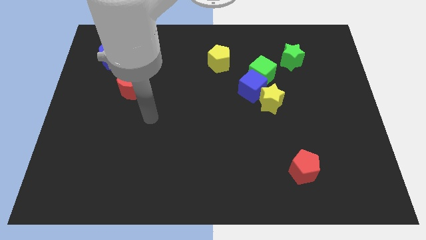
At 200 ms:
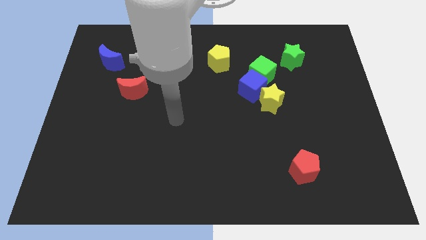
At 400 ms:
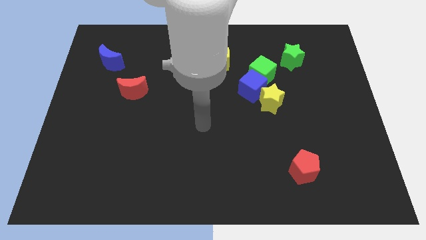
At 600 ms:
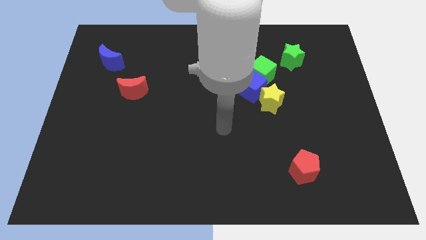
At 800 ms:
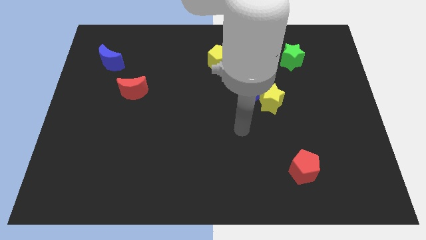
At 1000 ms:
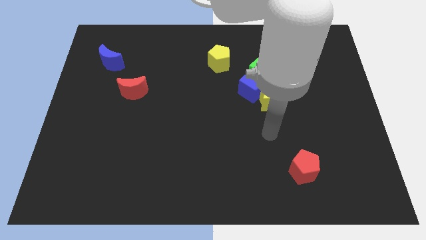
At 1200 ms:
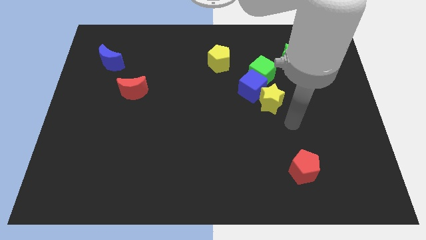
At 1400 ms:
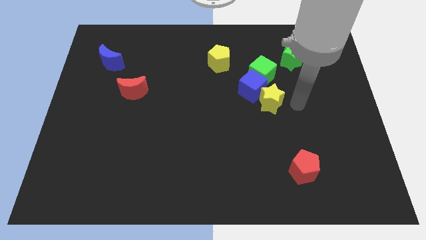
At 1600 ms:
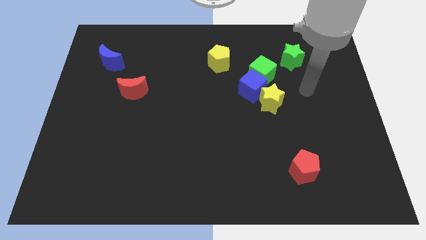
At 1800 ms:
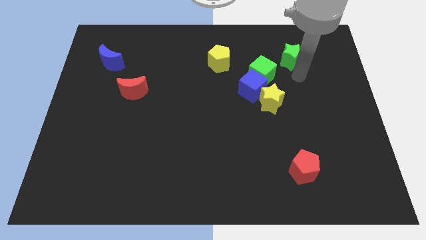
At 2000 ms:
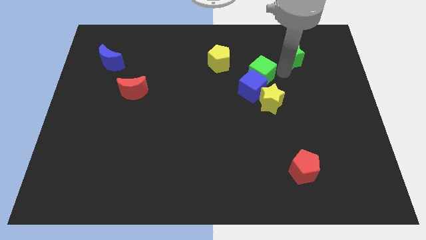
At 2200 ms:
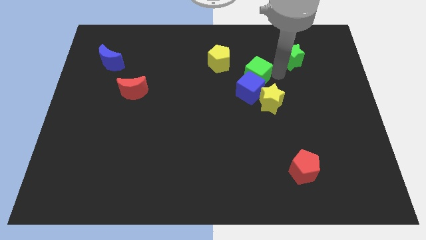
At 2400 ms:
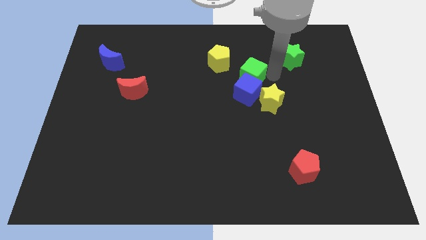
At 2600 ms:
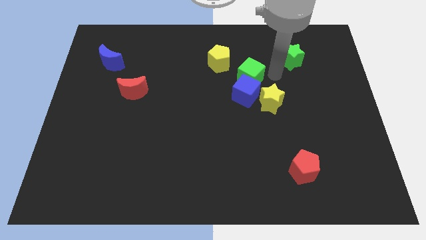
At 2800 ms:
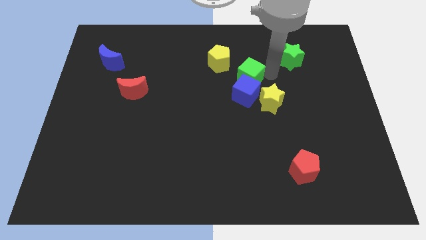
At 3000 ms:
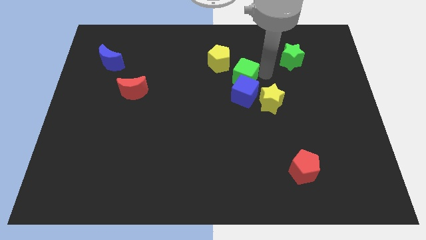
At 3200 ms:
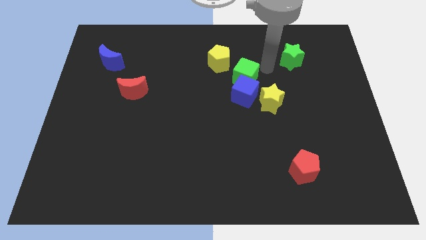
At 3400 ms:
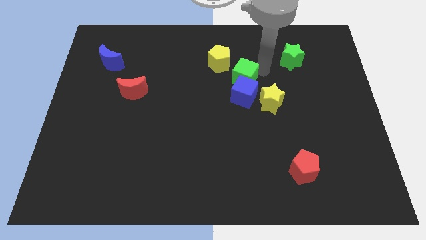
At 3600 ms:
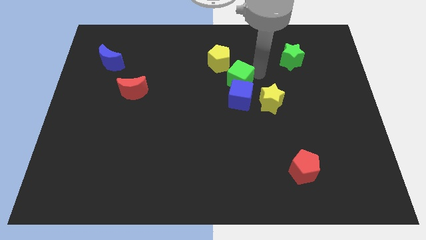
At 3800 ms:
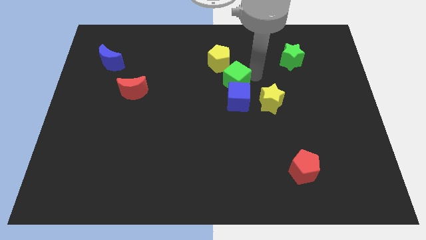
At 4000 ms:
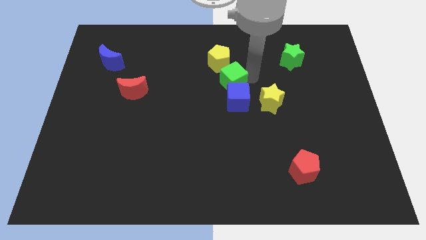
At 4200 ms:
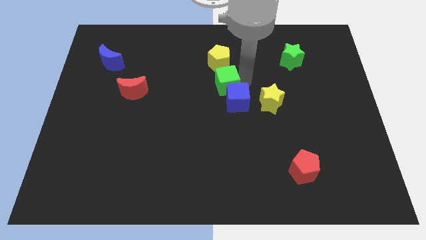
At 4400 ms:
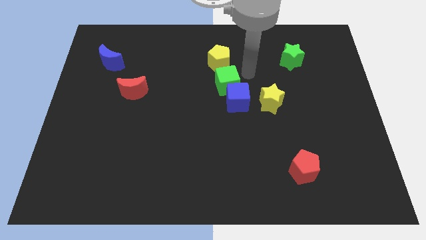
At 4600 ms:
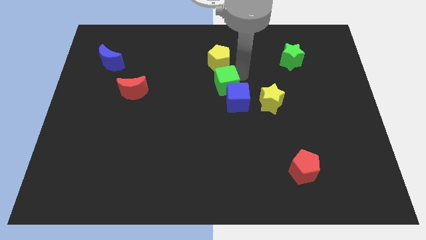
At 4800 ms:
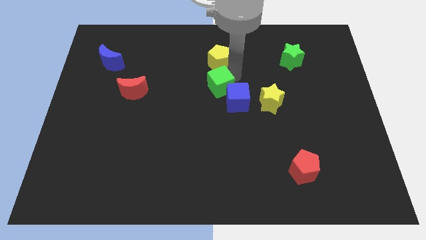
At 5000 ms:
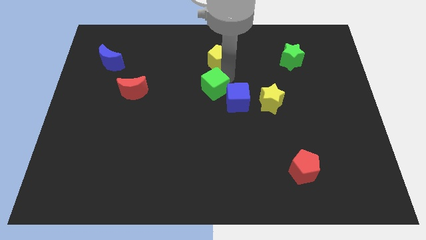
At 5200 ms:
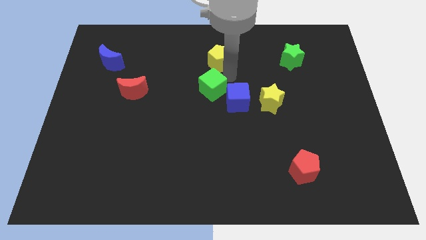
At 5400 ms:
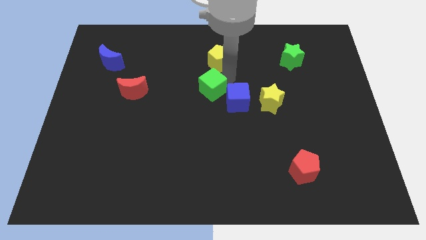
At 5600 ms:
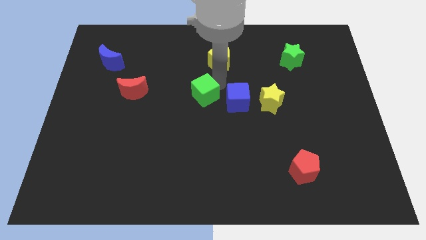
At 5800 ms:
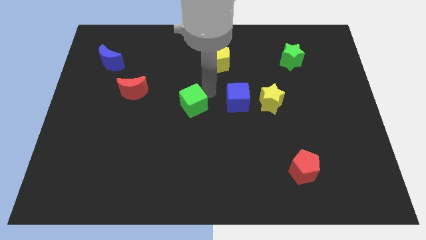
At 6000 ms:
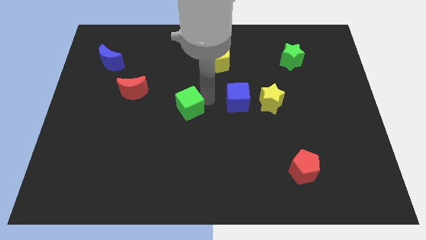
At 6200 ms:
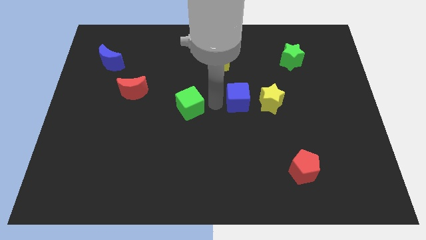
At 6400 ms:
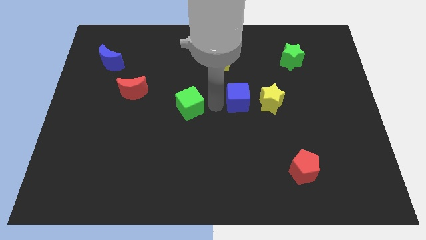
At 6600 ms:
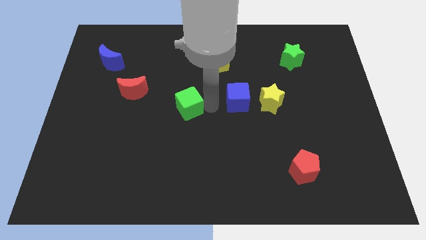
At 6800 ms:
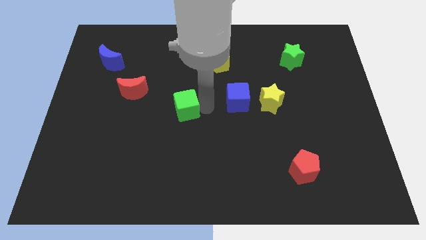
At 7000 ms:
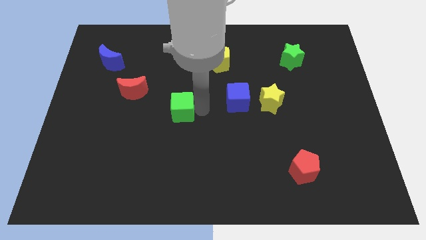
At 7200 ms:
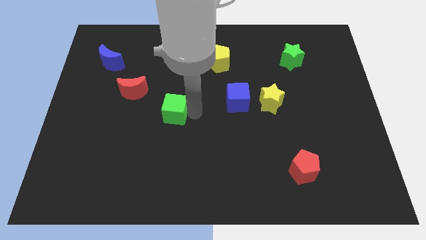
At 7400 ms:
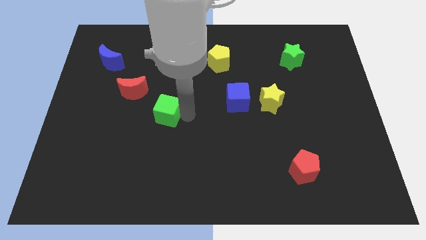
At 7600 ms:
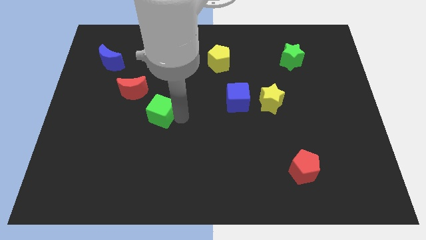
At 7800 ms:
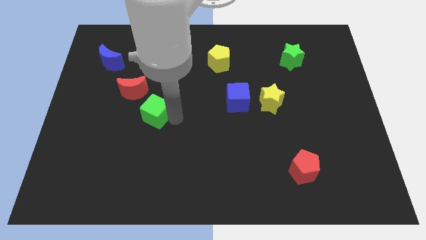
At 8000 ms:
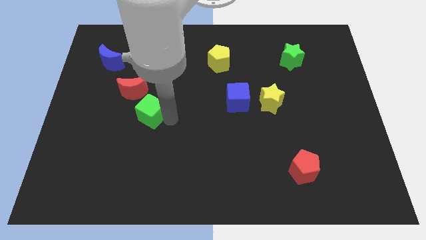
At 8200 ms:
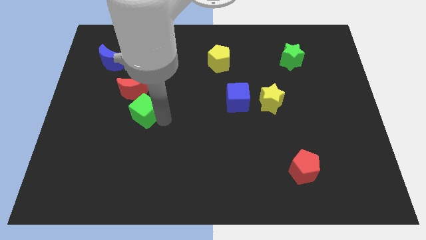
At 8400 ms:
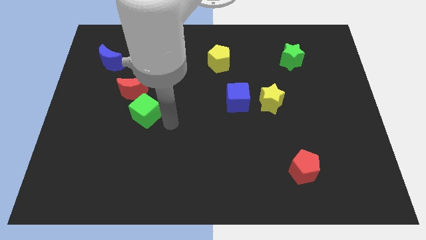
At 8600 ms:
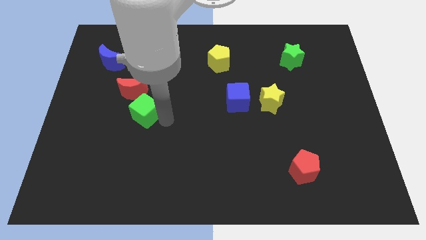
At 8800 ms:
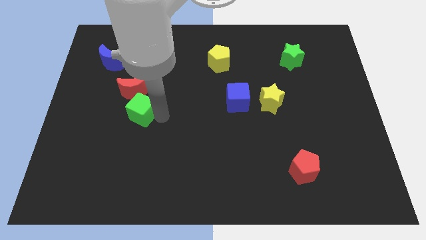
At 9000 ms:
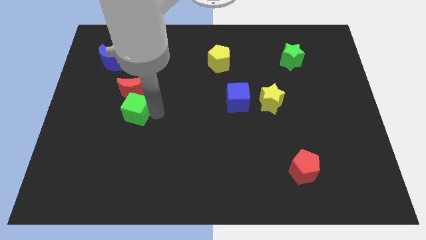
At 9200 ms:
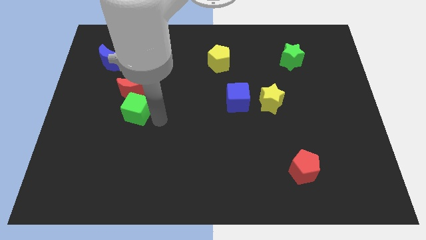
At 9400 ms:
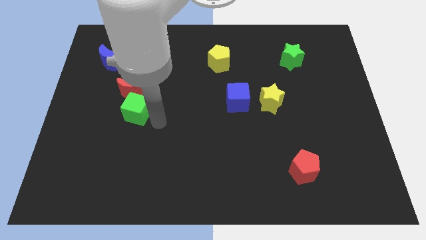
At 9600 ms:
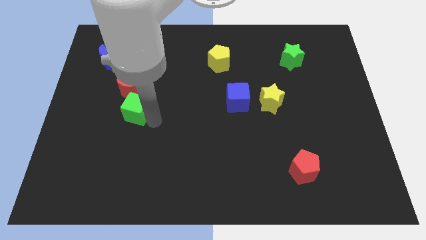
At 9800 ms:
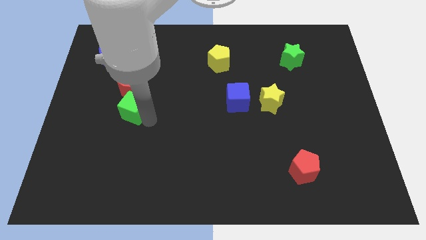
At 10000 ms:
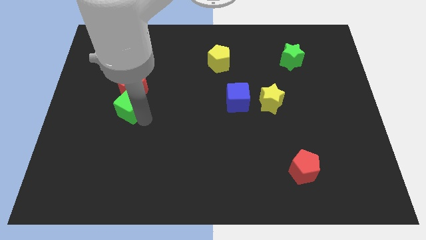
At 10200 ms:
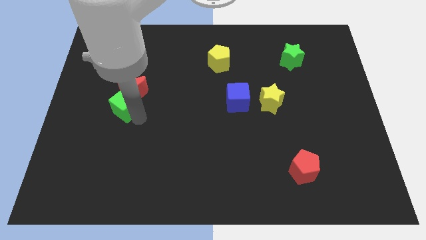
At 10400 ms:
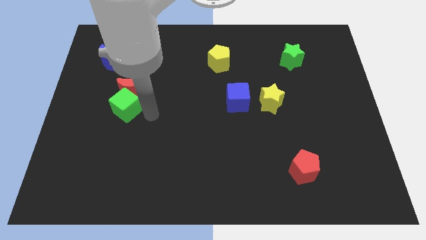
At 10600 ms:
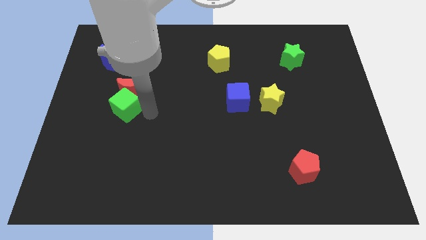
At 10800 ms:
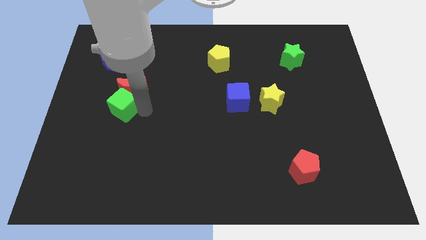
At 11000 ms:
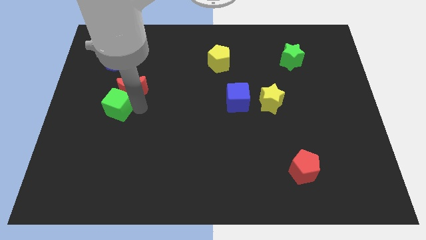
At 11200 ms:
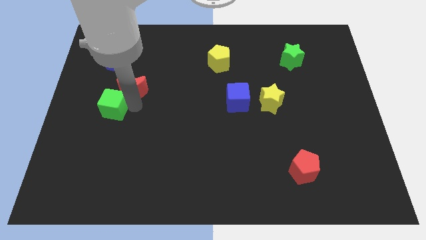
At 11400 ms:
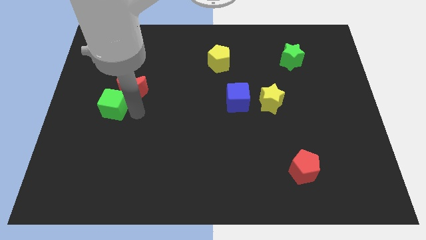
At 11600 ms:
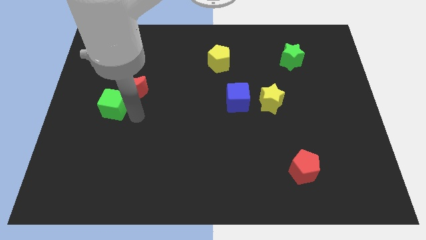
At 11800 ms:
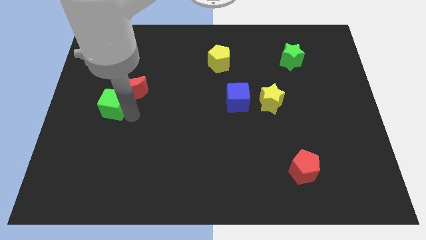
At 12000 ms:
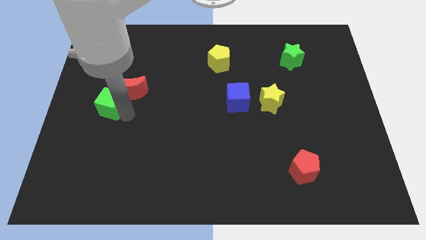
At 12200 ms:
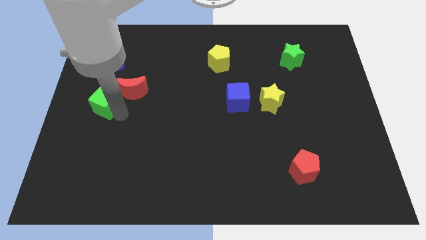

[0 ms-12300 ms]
slide the green cube to the left side

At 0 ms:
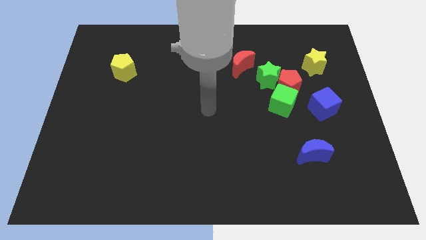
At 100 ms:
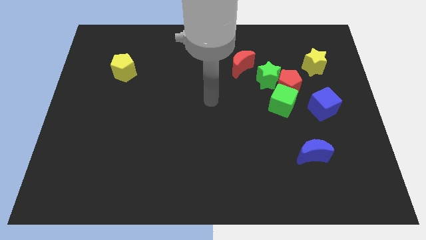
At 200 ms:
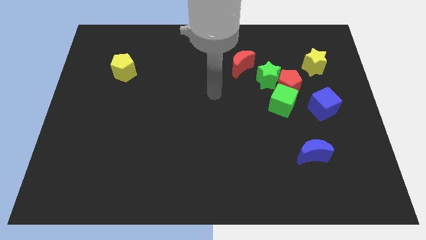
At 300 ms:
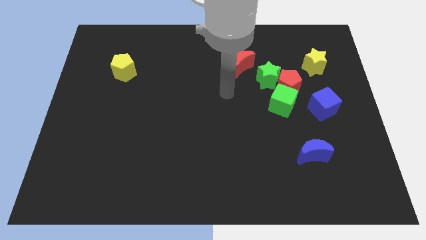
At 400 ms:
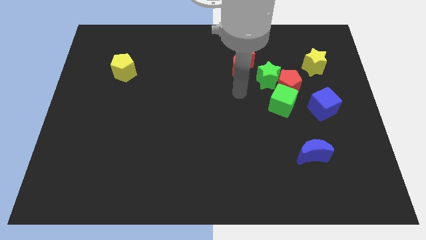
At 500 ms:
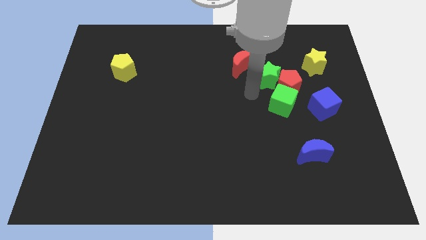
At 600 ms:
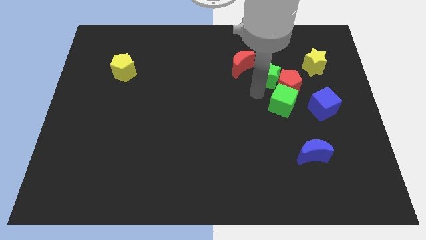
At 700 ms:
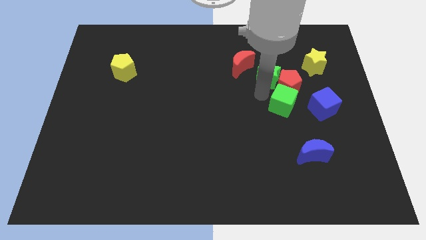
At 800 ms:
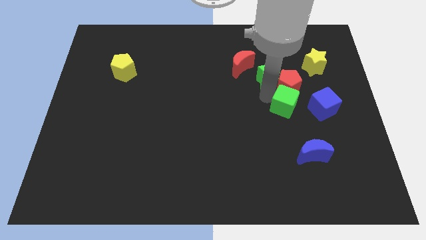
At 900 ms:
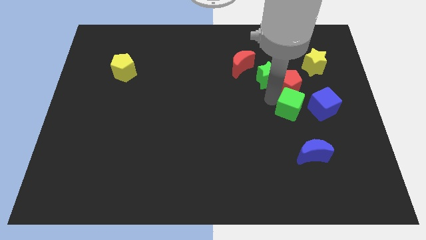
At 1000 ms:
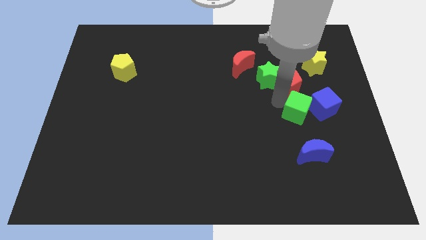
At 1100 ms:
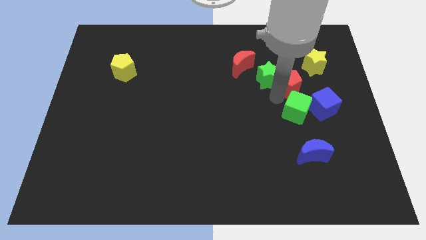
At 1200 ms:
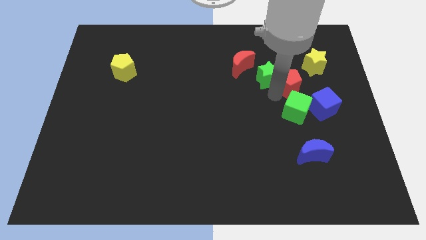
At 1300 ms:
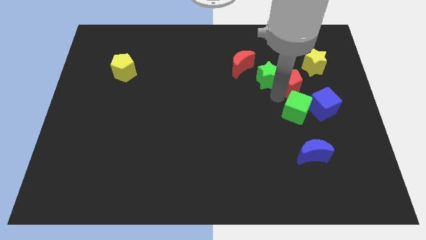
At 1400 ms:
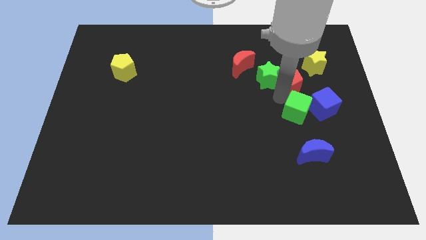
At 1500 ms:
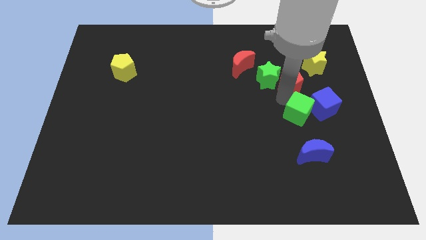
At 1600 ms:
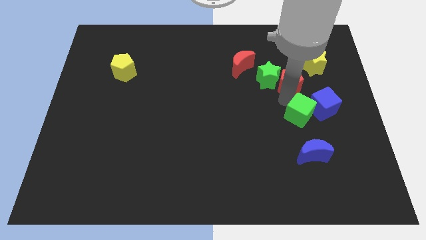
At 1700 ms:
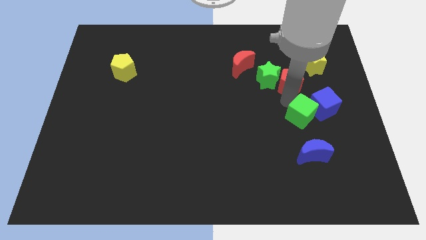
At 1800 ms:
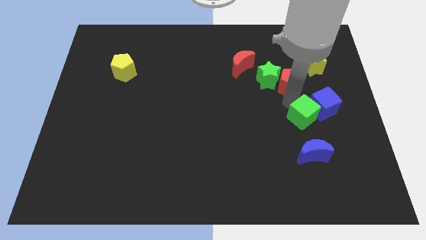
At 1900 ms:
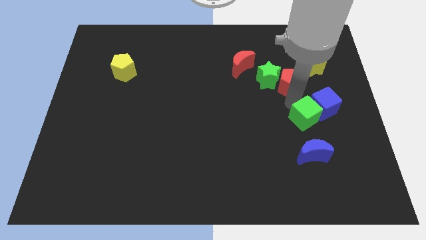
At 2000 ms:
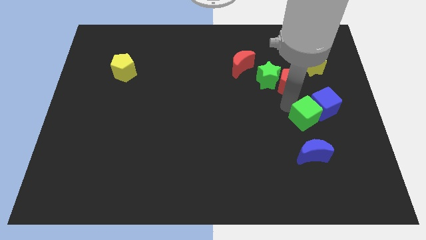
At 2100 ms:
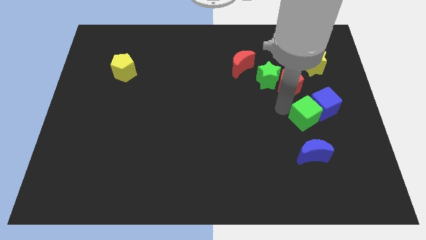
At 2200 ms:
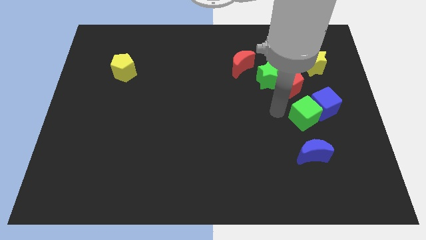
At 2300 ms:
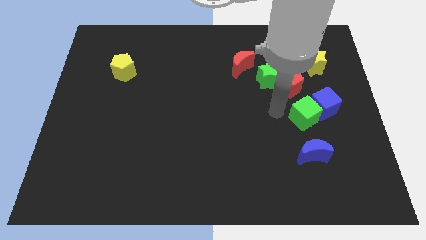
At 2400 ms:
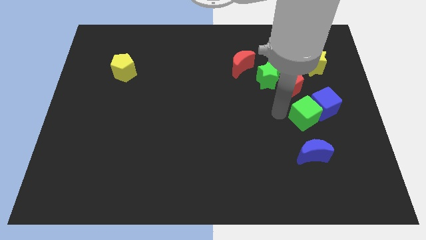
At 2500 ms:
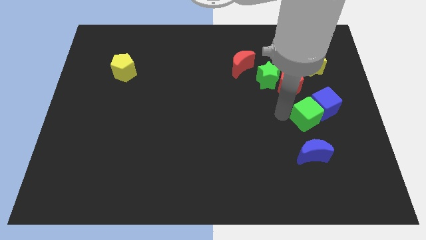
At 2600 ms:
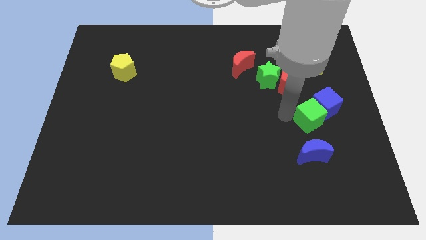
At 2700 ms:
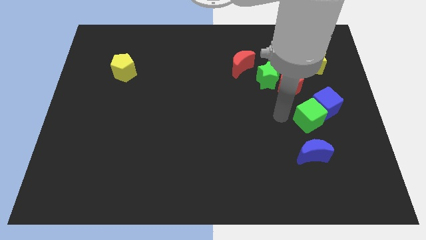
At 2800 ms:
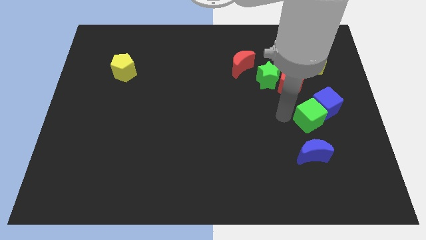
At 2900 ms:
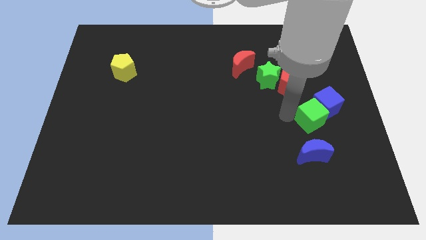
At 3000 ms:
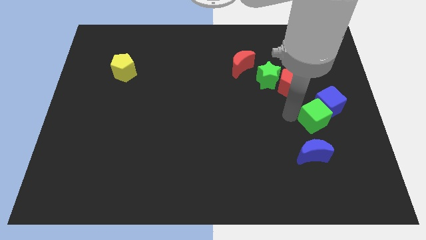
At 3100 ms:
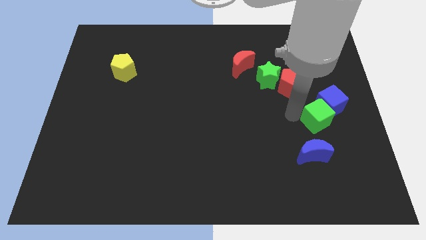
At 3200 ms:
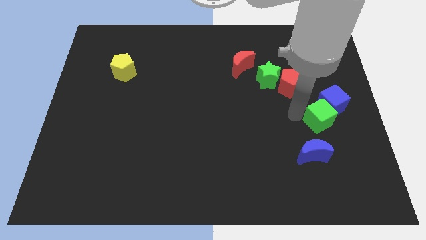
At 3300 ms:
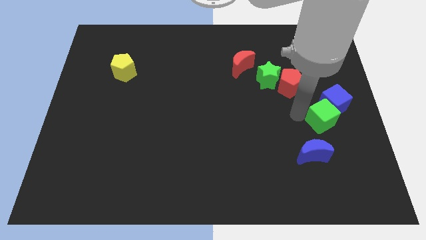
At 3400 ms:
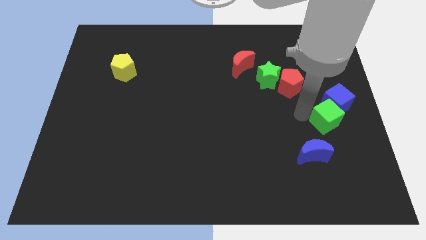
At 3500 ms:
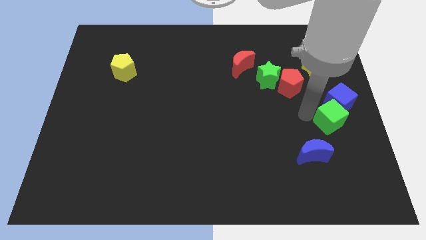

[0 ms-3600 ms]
push the green cube to the right side
